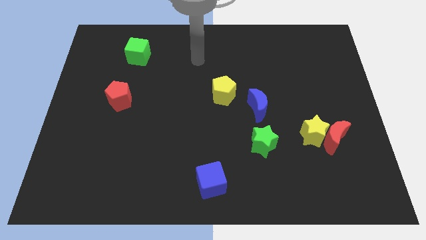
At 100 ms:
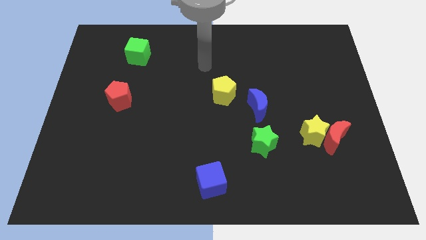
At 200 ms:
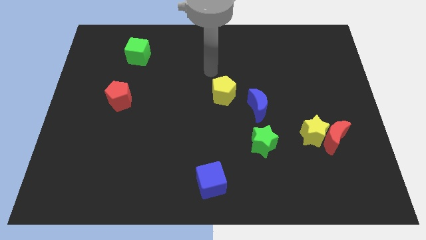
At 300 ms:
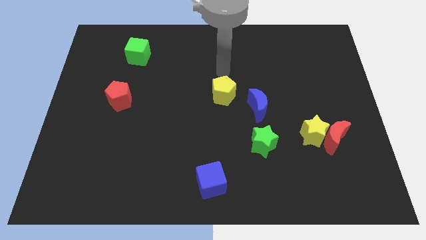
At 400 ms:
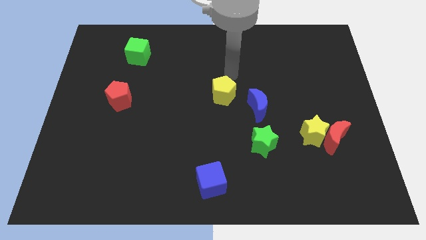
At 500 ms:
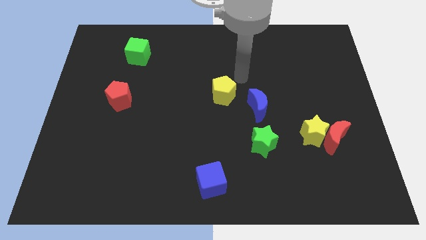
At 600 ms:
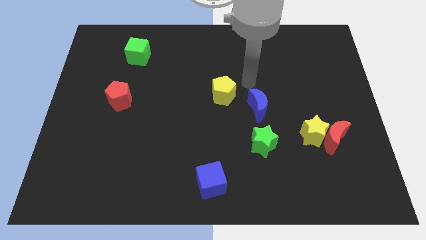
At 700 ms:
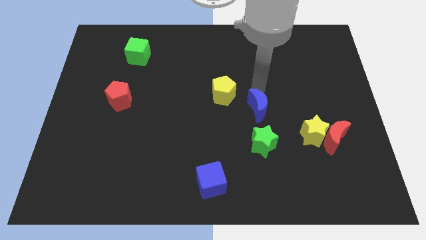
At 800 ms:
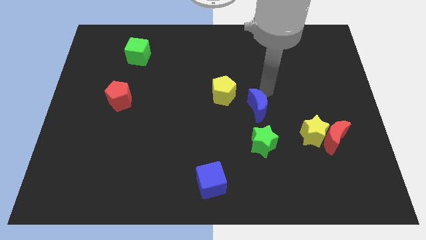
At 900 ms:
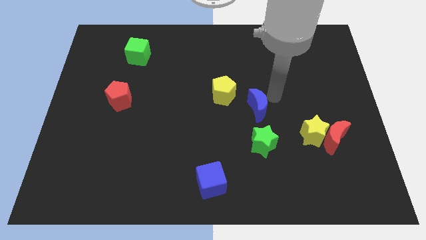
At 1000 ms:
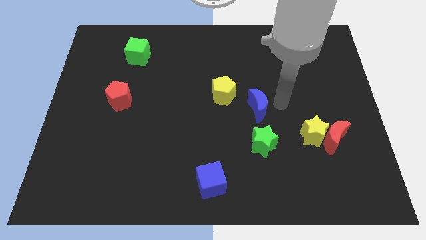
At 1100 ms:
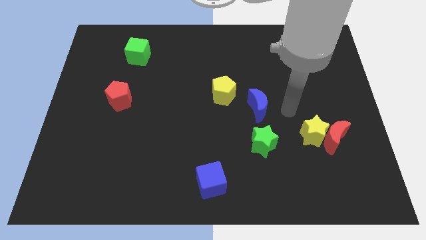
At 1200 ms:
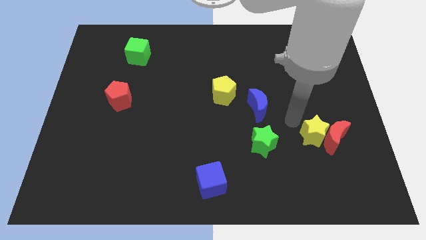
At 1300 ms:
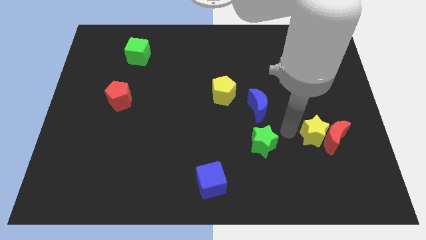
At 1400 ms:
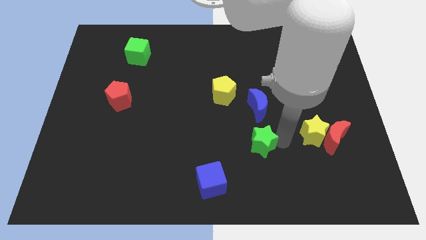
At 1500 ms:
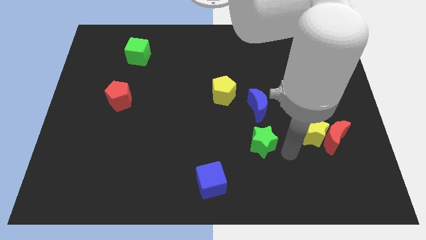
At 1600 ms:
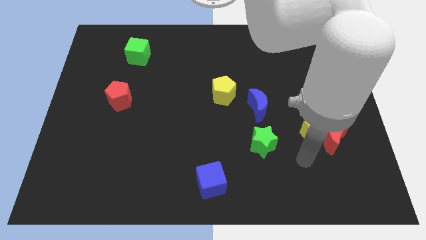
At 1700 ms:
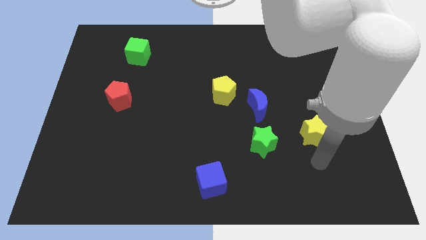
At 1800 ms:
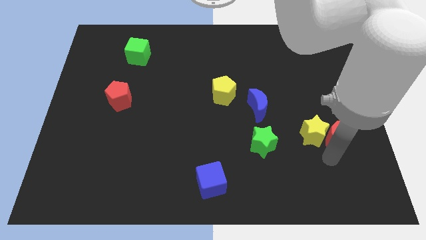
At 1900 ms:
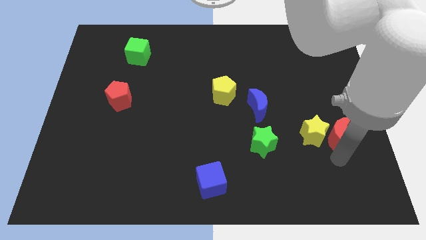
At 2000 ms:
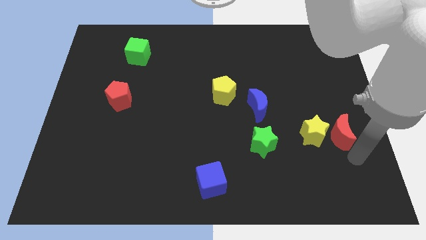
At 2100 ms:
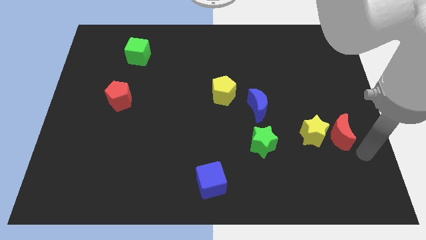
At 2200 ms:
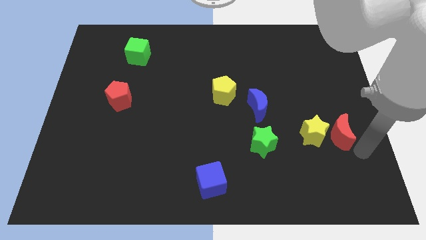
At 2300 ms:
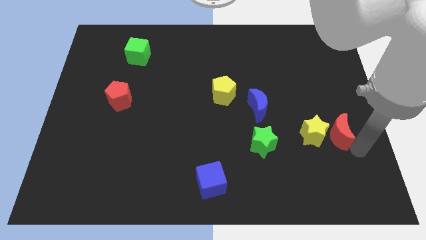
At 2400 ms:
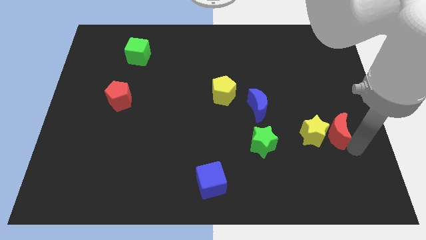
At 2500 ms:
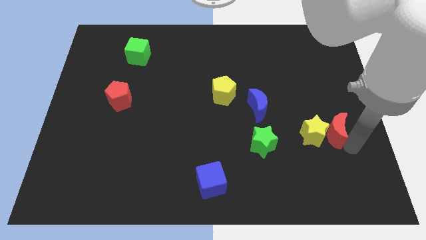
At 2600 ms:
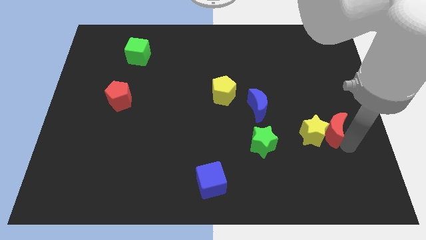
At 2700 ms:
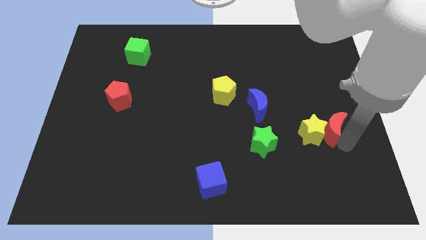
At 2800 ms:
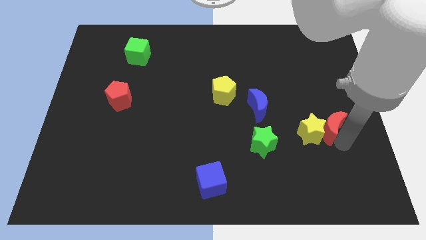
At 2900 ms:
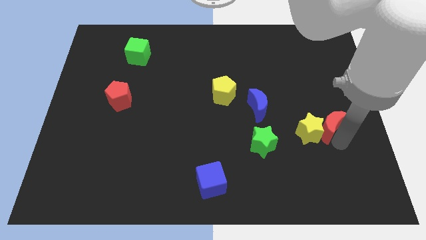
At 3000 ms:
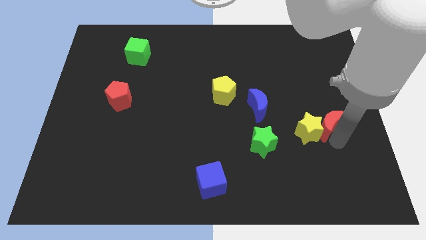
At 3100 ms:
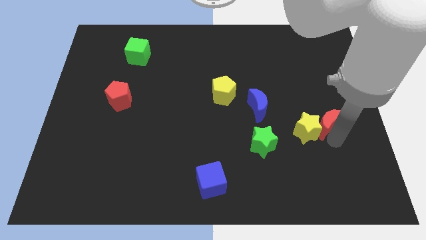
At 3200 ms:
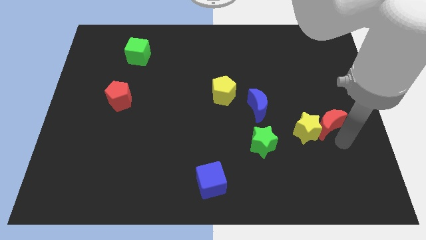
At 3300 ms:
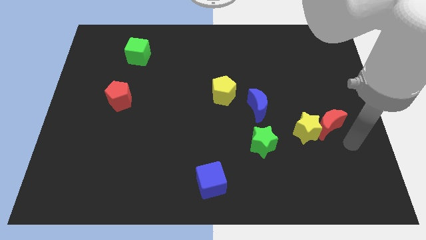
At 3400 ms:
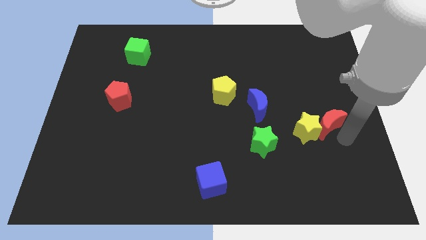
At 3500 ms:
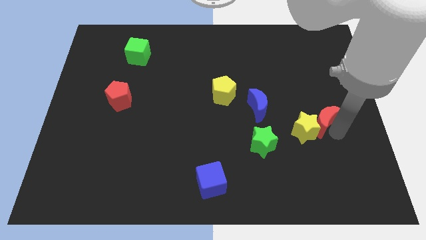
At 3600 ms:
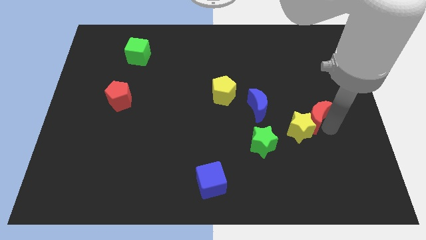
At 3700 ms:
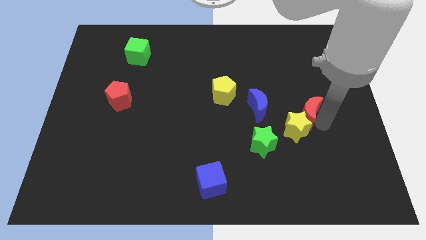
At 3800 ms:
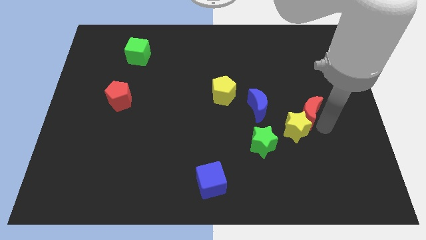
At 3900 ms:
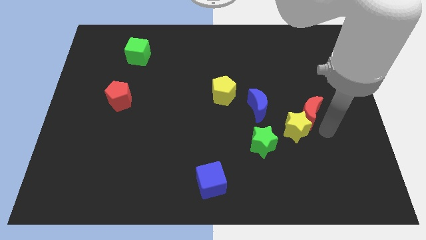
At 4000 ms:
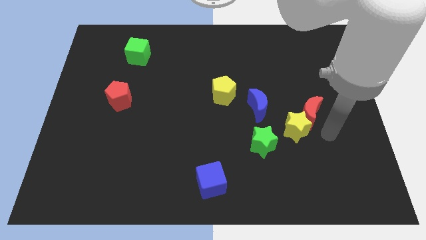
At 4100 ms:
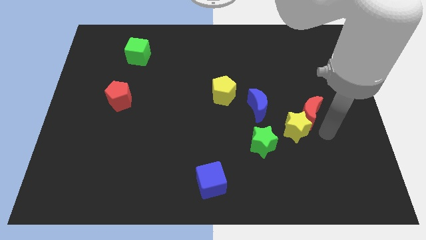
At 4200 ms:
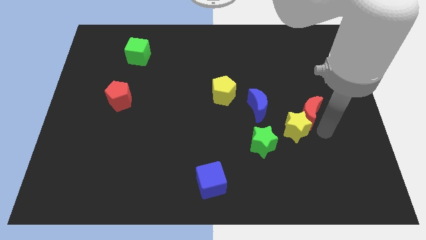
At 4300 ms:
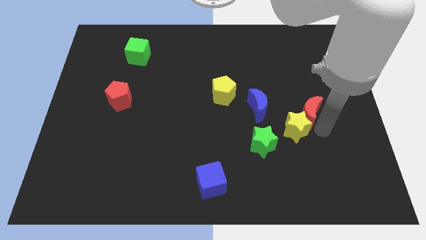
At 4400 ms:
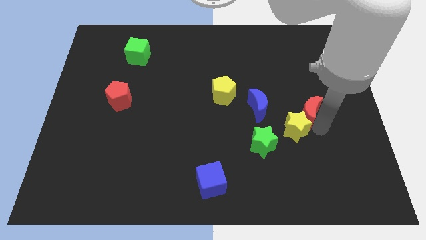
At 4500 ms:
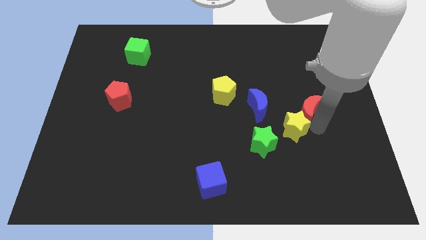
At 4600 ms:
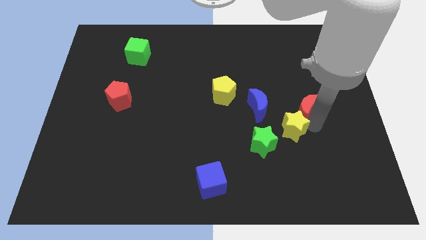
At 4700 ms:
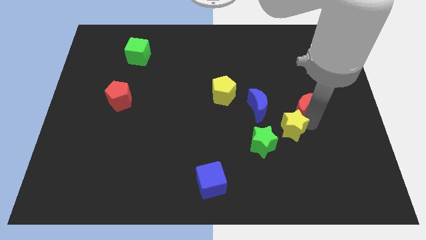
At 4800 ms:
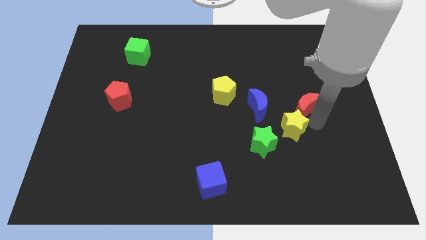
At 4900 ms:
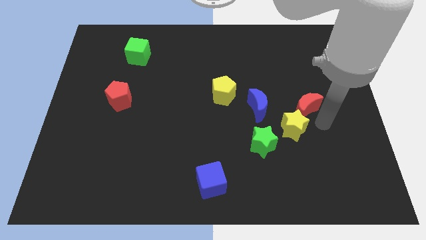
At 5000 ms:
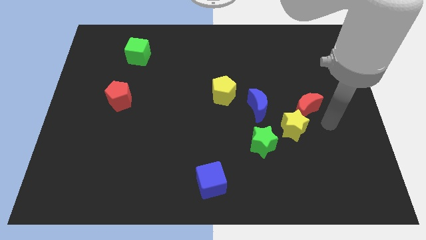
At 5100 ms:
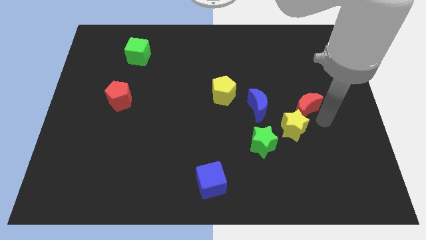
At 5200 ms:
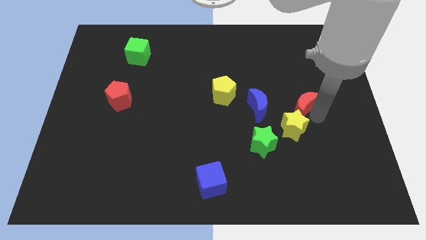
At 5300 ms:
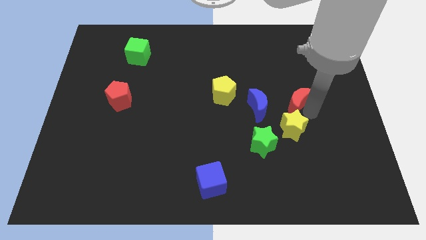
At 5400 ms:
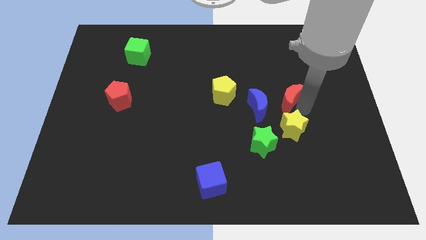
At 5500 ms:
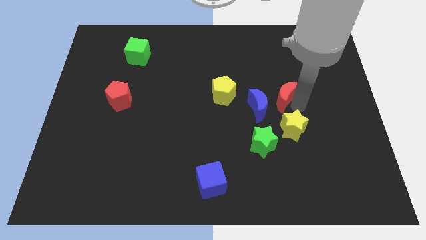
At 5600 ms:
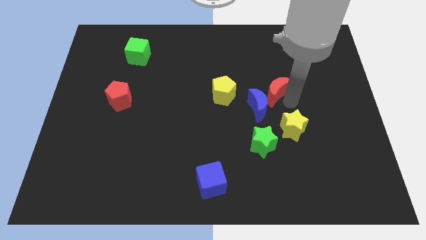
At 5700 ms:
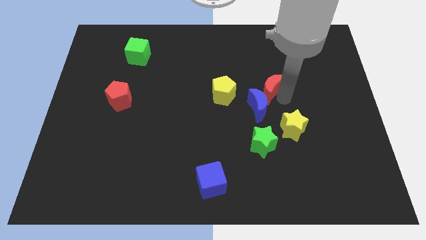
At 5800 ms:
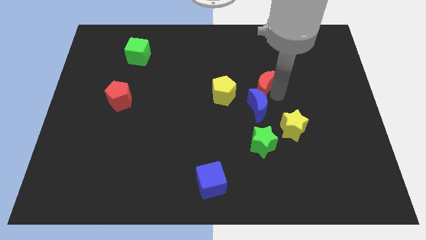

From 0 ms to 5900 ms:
move the red moon upwards and then to the left

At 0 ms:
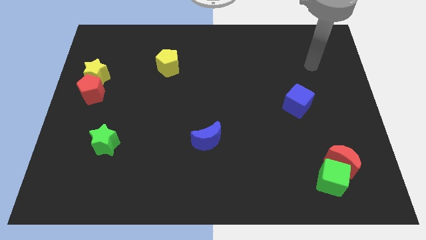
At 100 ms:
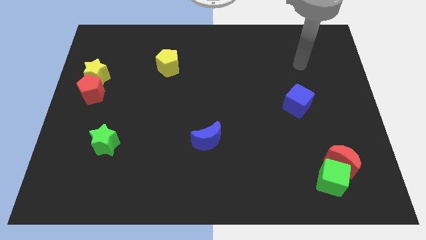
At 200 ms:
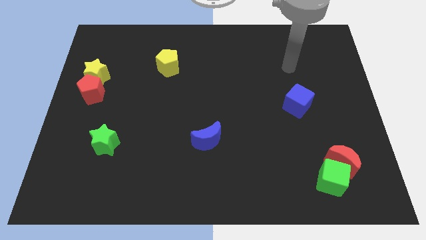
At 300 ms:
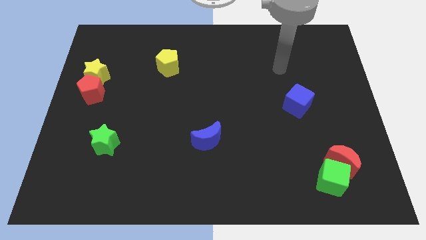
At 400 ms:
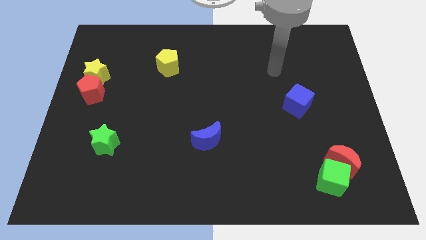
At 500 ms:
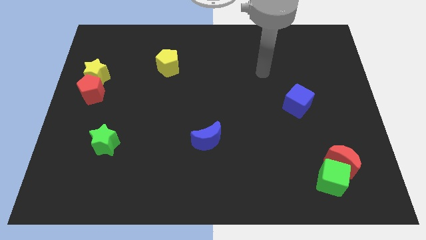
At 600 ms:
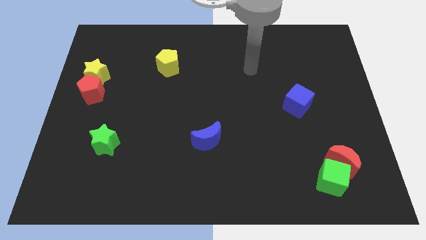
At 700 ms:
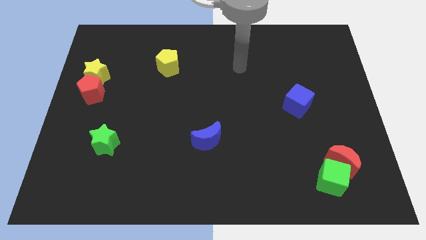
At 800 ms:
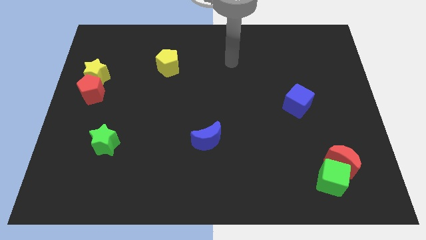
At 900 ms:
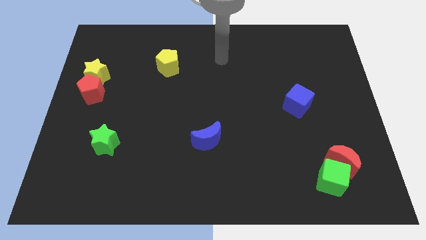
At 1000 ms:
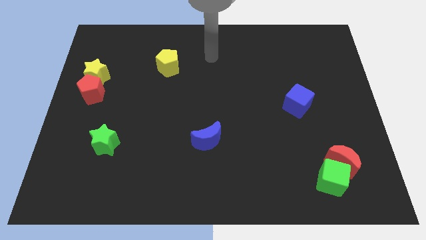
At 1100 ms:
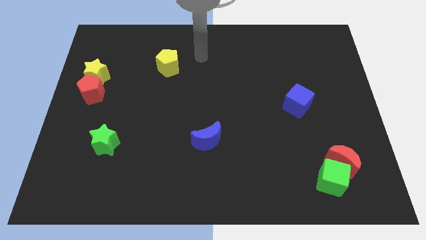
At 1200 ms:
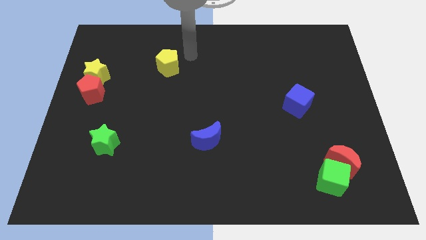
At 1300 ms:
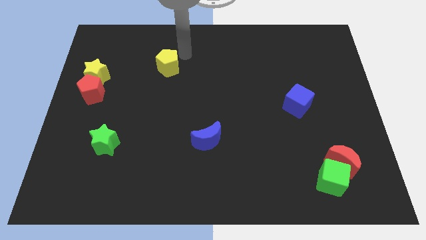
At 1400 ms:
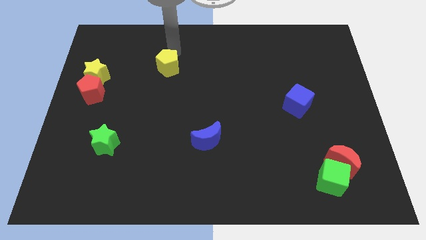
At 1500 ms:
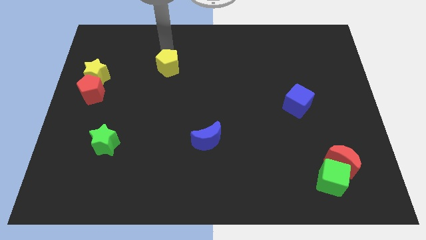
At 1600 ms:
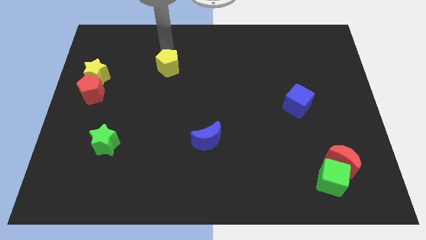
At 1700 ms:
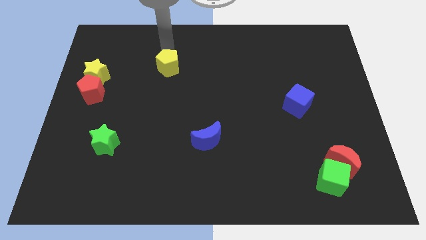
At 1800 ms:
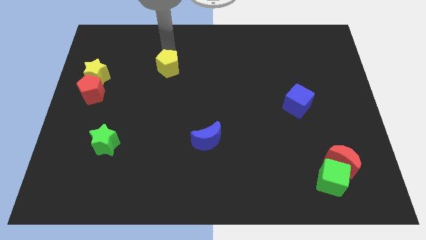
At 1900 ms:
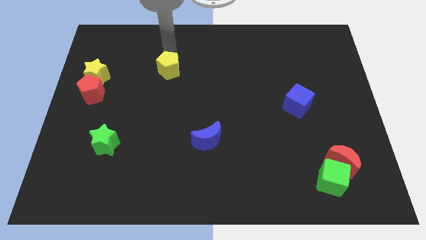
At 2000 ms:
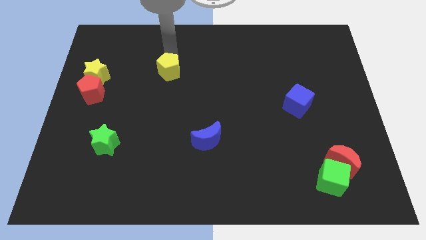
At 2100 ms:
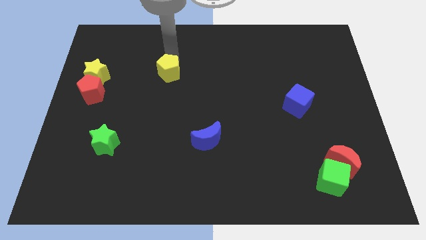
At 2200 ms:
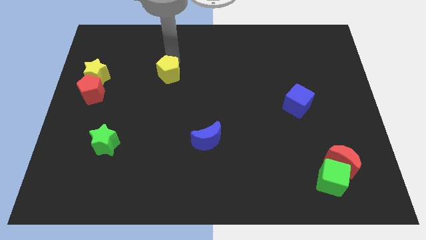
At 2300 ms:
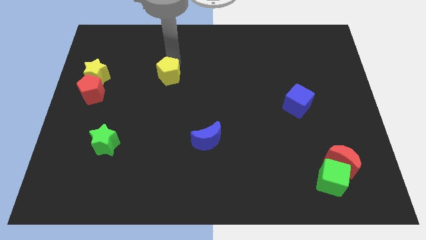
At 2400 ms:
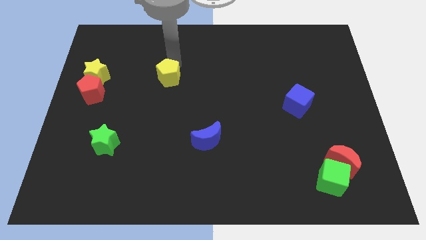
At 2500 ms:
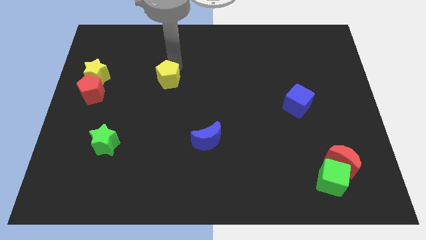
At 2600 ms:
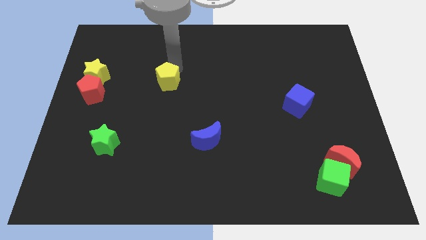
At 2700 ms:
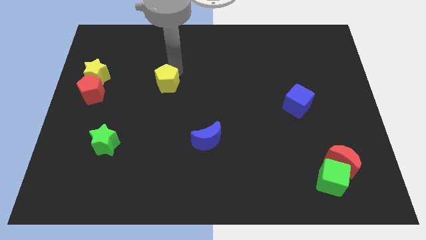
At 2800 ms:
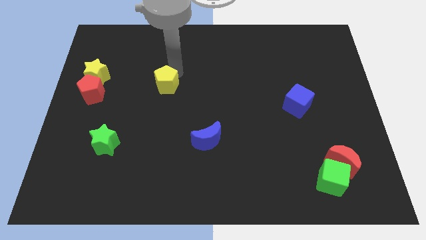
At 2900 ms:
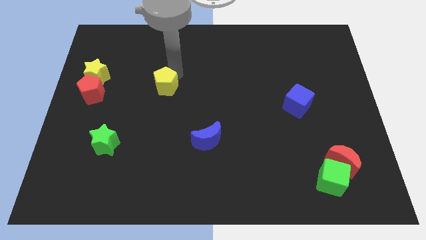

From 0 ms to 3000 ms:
push the yellow pentagon a little down
